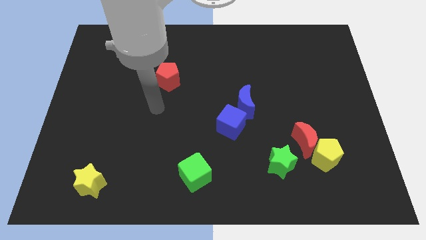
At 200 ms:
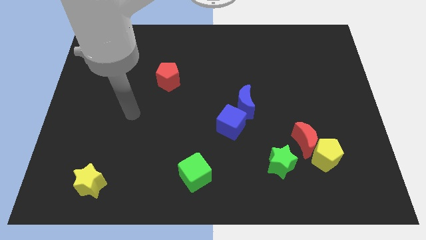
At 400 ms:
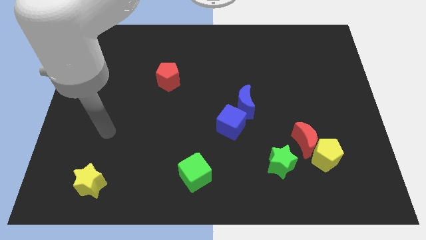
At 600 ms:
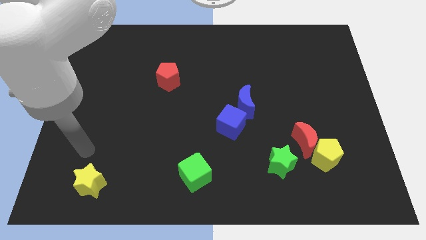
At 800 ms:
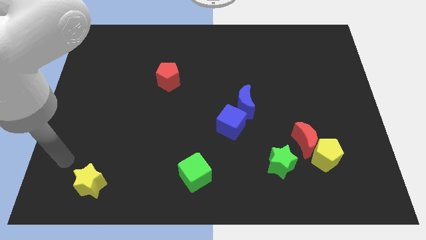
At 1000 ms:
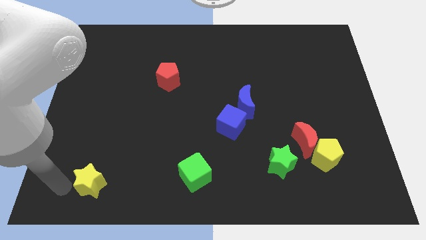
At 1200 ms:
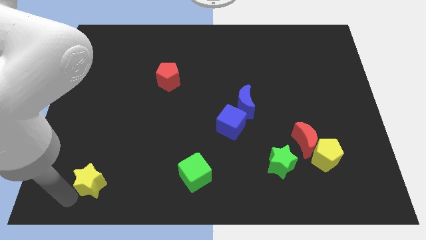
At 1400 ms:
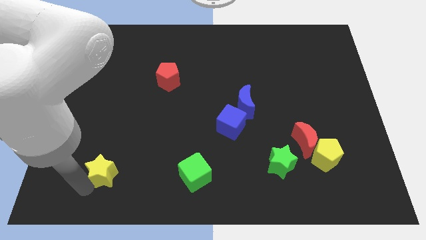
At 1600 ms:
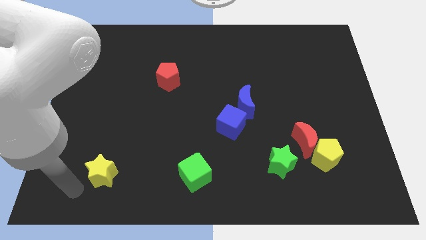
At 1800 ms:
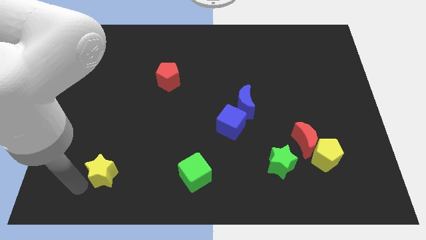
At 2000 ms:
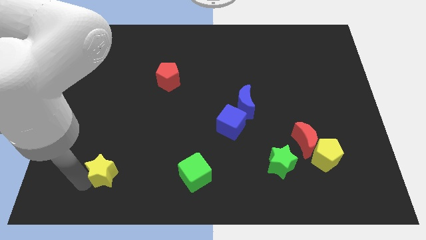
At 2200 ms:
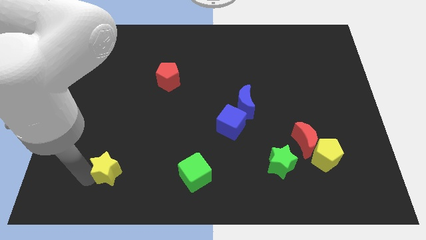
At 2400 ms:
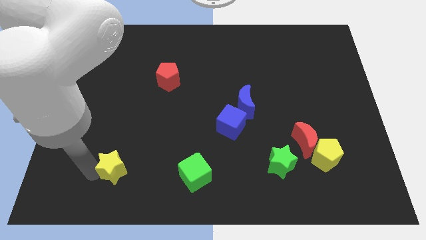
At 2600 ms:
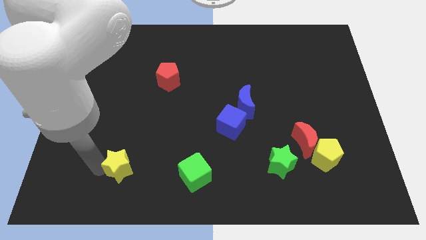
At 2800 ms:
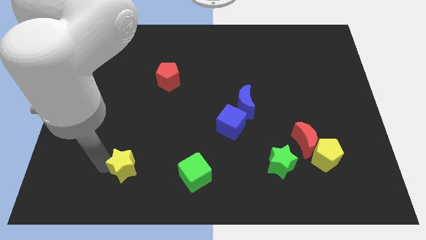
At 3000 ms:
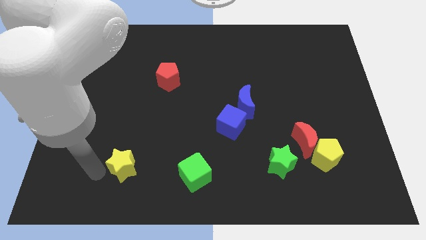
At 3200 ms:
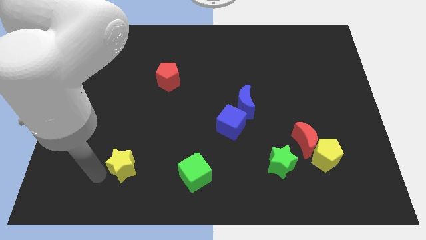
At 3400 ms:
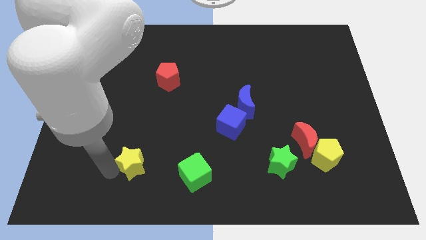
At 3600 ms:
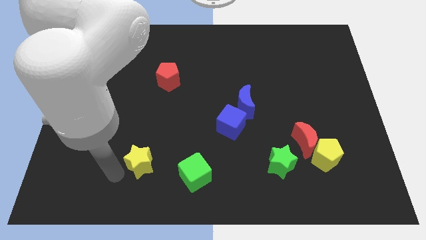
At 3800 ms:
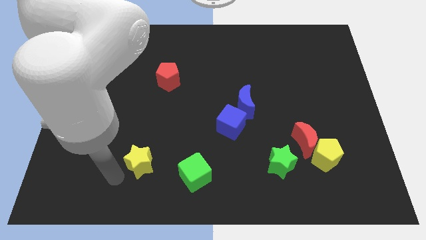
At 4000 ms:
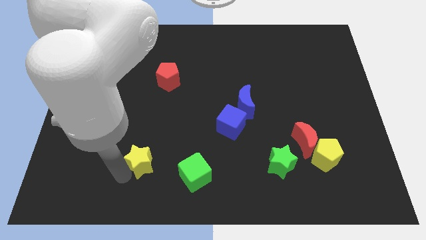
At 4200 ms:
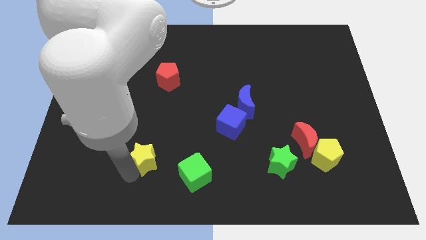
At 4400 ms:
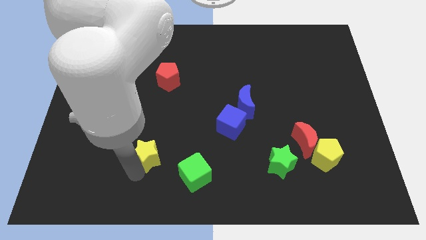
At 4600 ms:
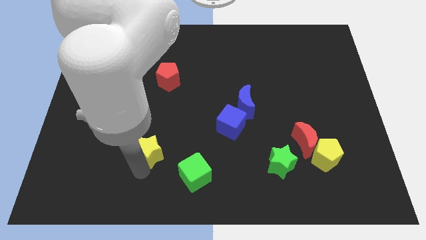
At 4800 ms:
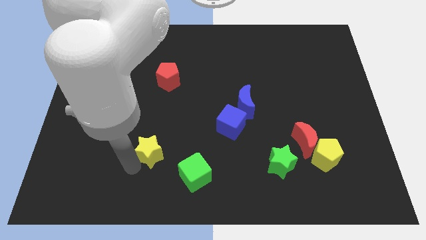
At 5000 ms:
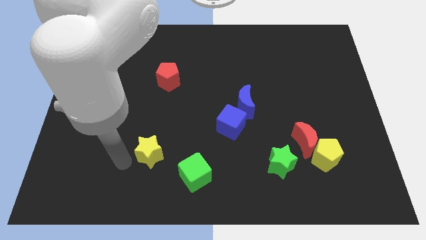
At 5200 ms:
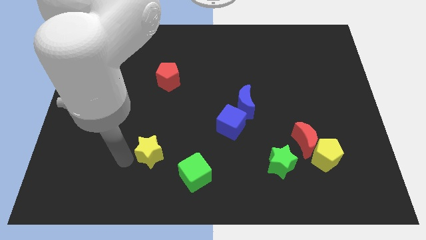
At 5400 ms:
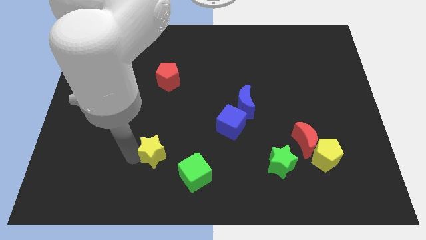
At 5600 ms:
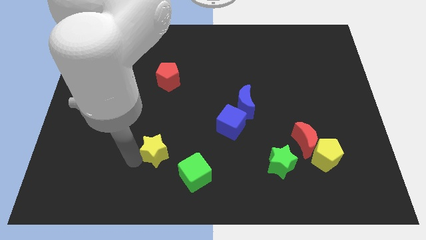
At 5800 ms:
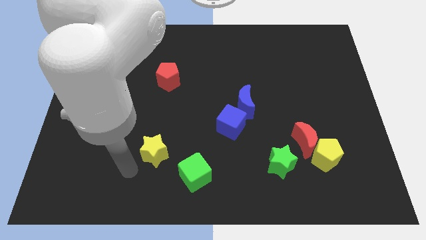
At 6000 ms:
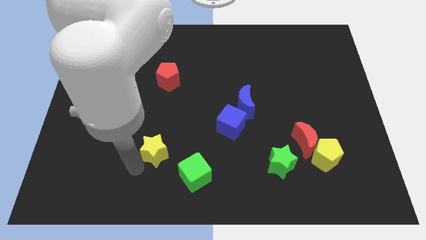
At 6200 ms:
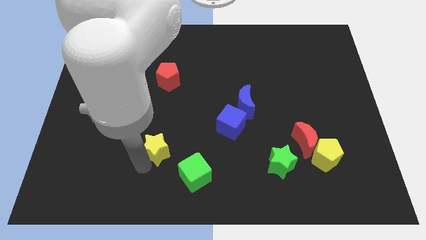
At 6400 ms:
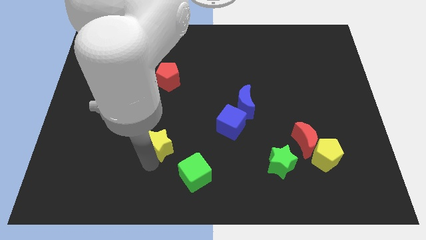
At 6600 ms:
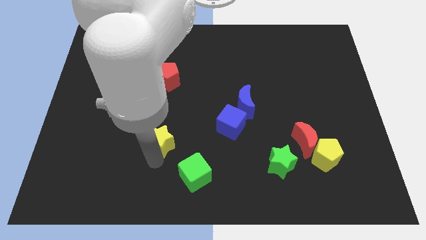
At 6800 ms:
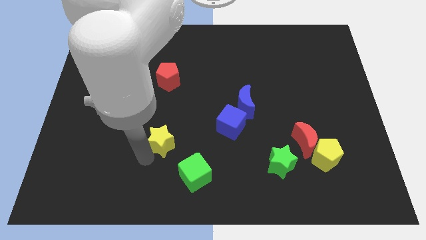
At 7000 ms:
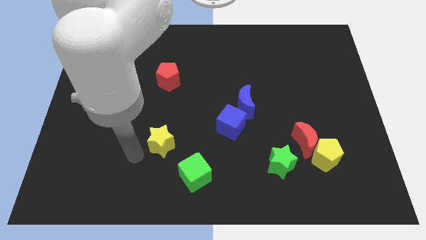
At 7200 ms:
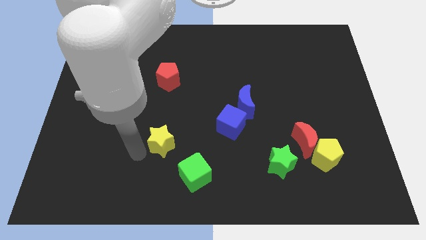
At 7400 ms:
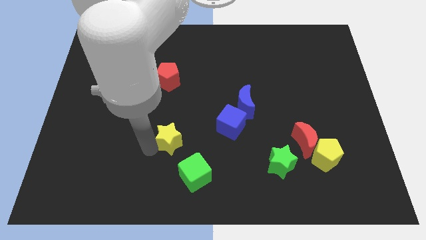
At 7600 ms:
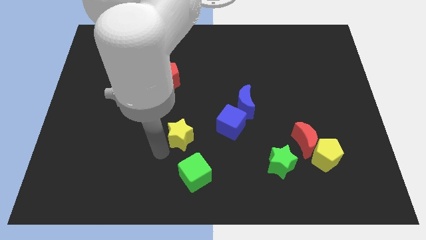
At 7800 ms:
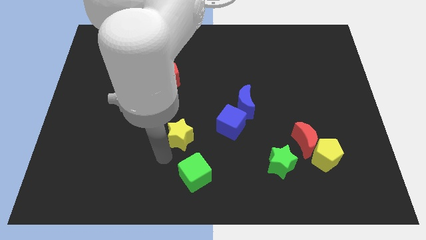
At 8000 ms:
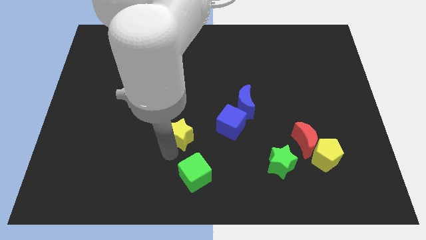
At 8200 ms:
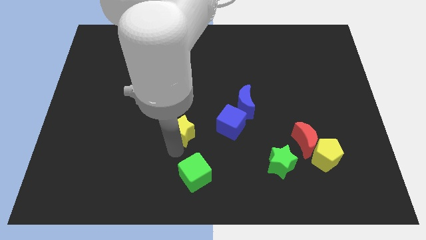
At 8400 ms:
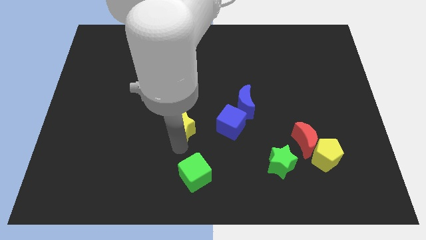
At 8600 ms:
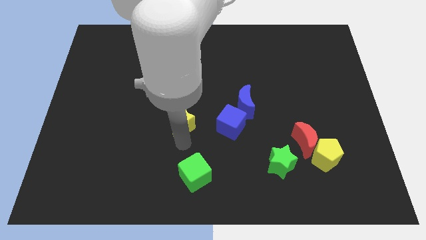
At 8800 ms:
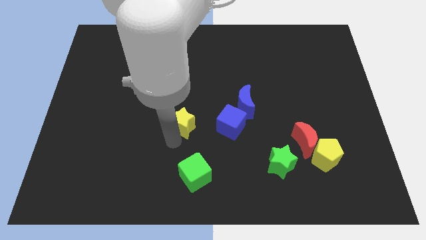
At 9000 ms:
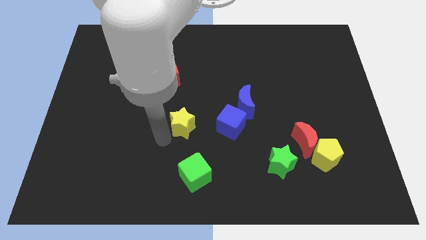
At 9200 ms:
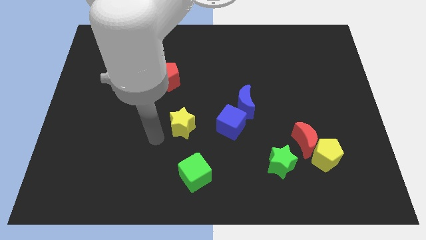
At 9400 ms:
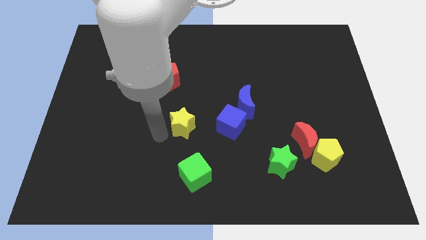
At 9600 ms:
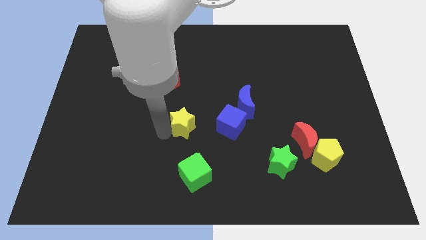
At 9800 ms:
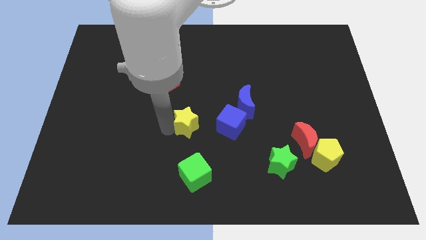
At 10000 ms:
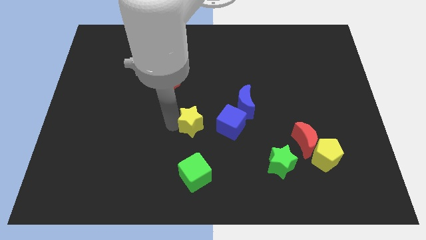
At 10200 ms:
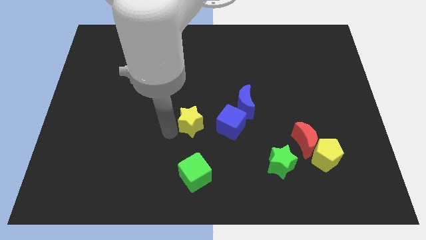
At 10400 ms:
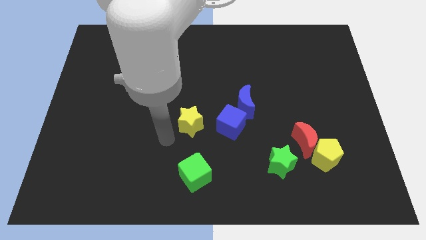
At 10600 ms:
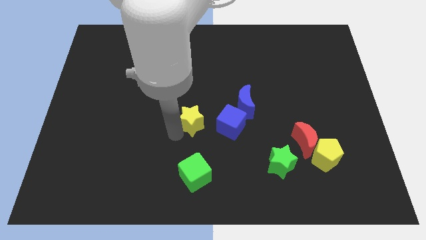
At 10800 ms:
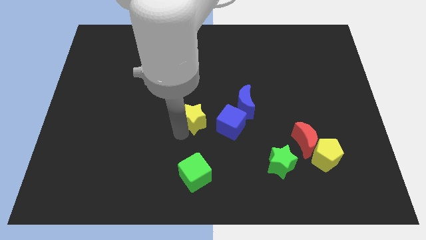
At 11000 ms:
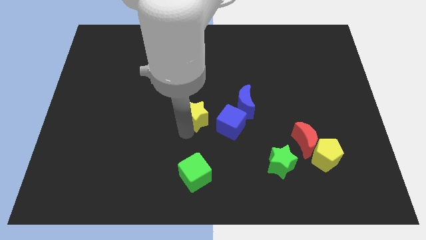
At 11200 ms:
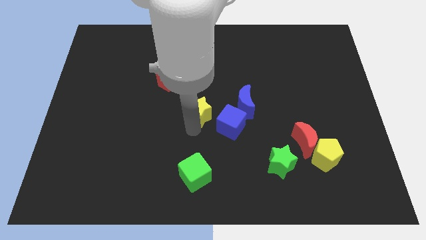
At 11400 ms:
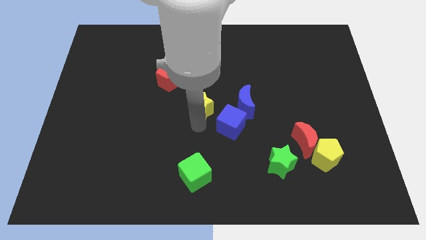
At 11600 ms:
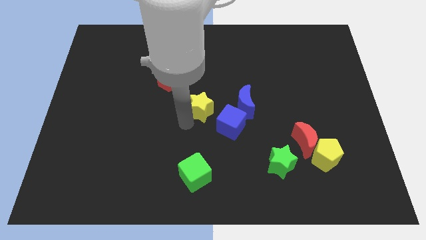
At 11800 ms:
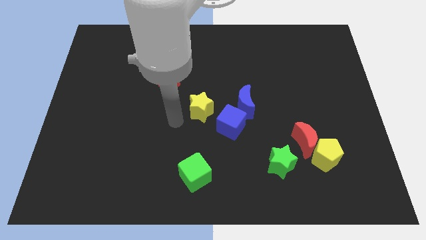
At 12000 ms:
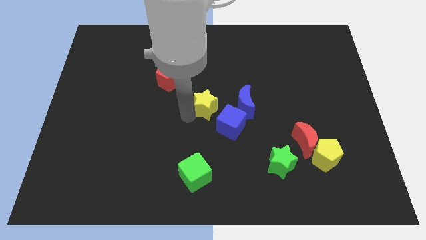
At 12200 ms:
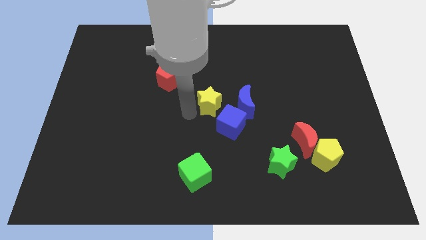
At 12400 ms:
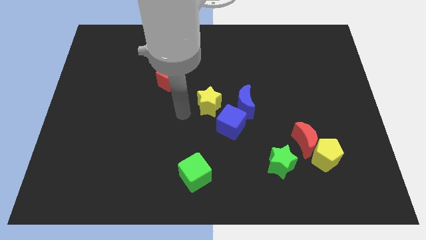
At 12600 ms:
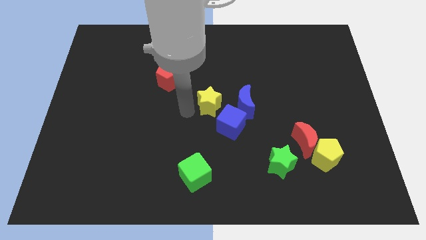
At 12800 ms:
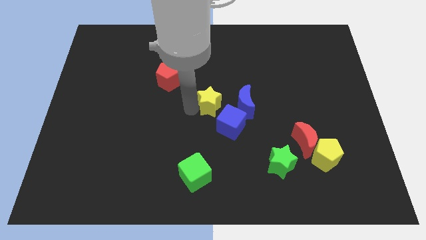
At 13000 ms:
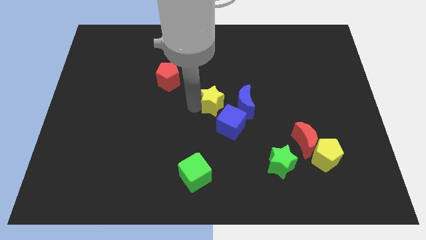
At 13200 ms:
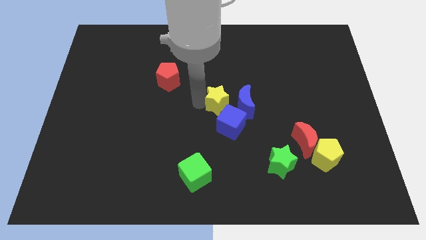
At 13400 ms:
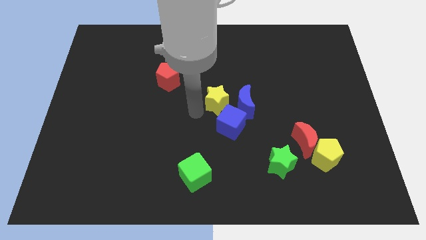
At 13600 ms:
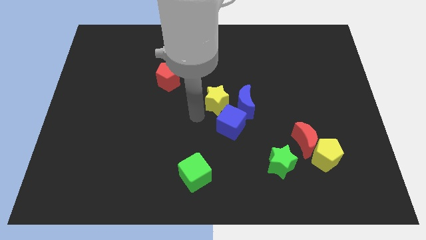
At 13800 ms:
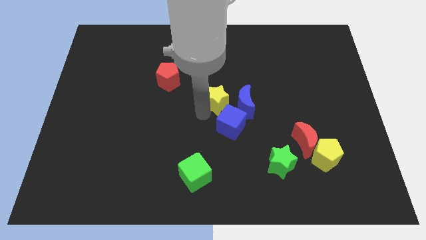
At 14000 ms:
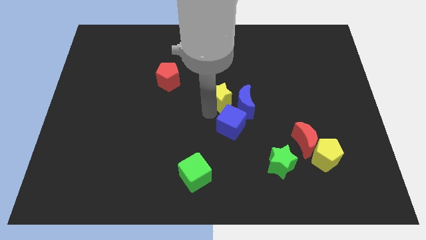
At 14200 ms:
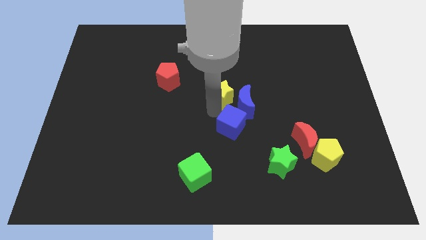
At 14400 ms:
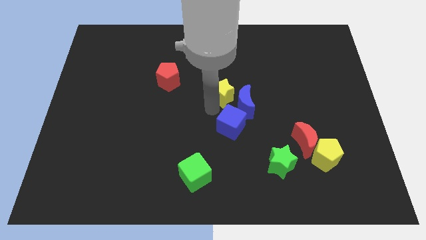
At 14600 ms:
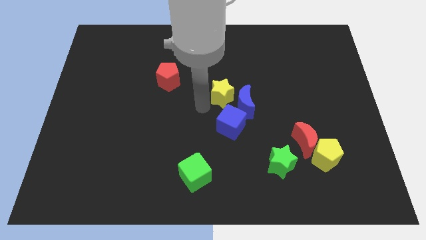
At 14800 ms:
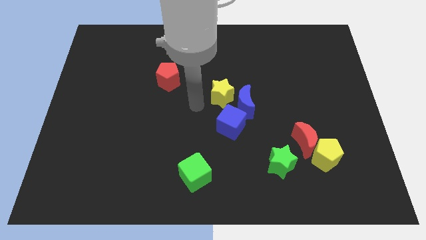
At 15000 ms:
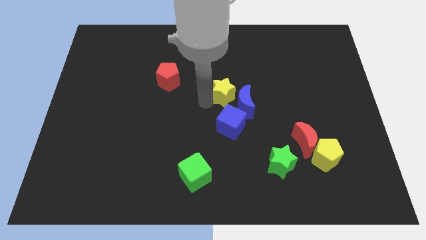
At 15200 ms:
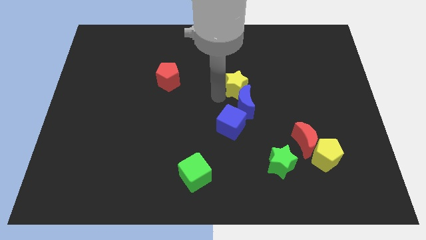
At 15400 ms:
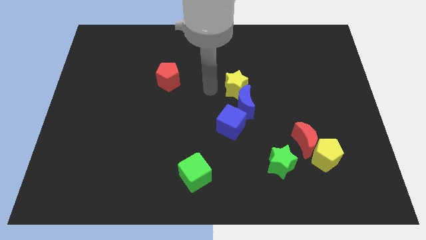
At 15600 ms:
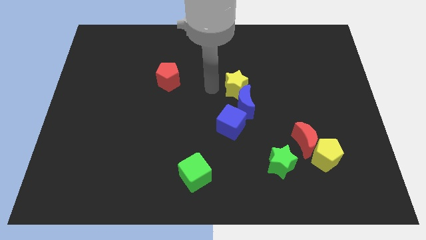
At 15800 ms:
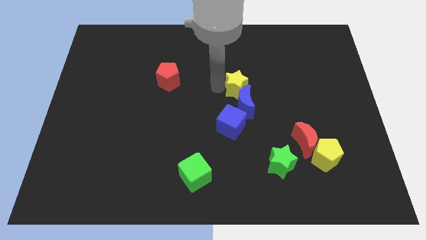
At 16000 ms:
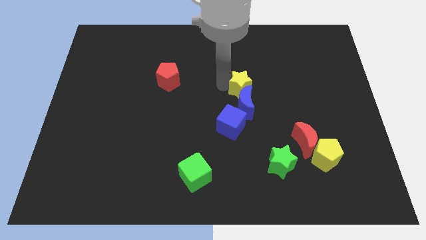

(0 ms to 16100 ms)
move the yellow star to the top right of the blue moon
